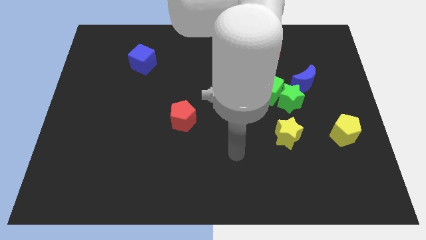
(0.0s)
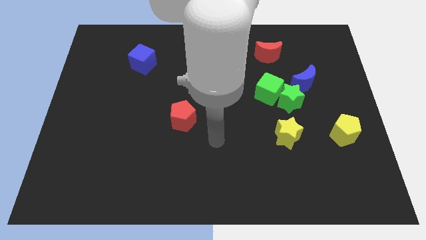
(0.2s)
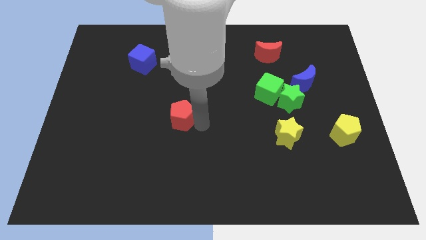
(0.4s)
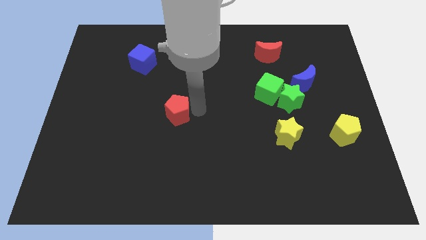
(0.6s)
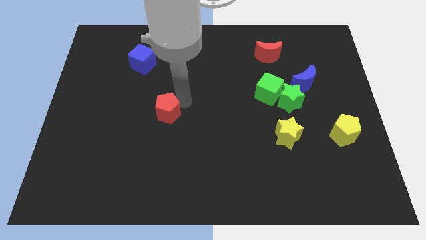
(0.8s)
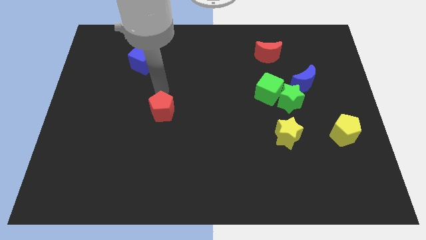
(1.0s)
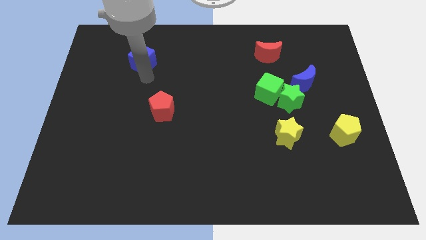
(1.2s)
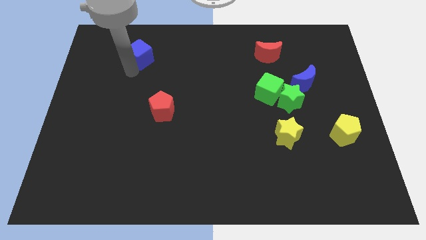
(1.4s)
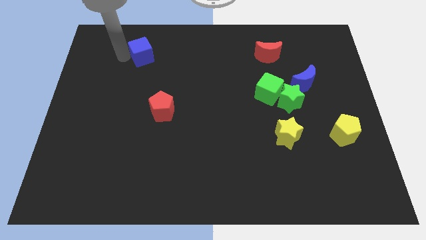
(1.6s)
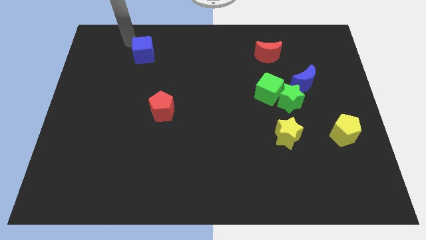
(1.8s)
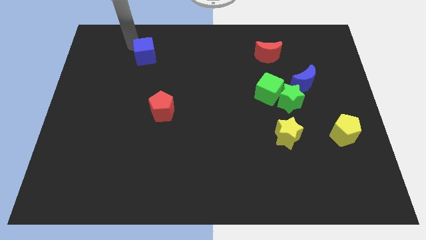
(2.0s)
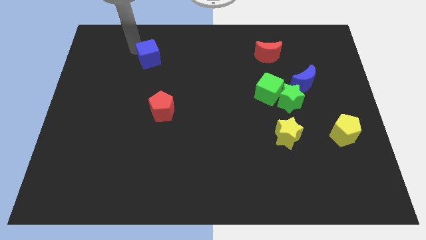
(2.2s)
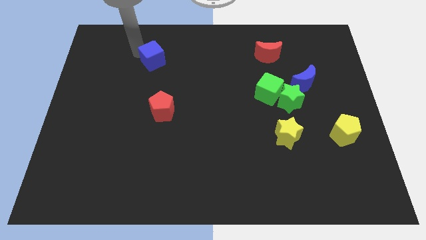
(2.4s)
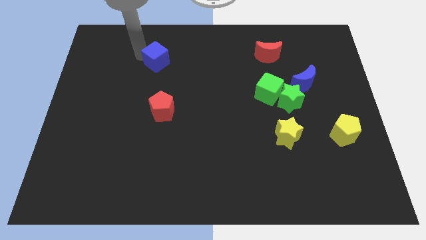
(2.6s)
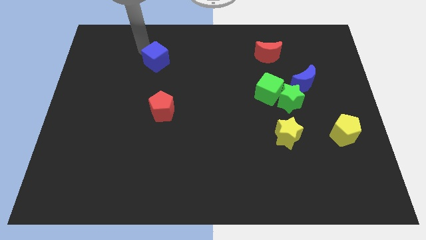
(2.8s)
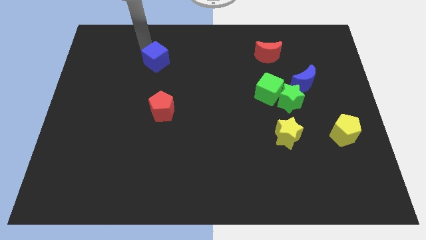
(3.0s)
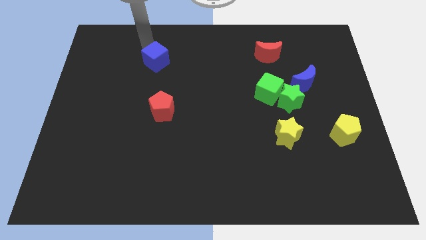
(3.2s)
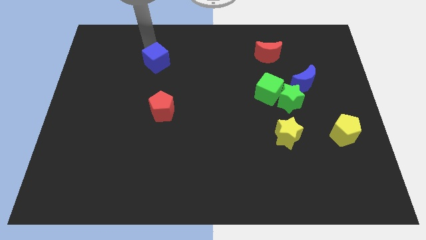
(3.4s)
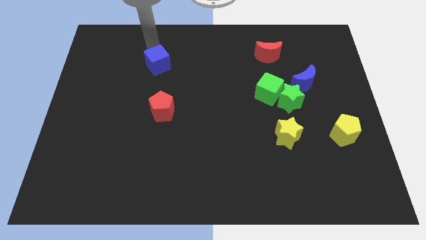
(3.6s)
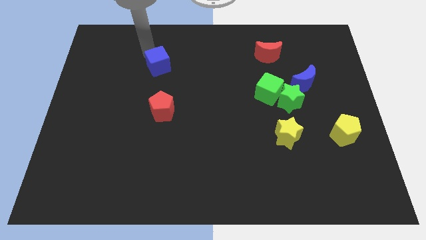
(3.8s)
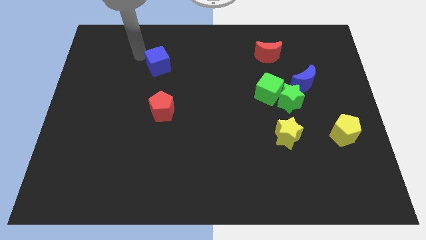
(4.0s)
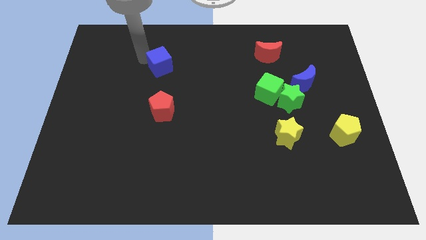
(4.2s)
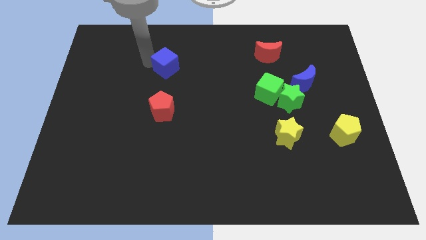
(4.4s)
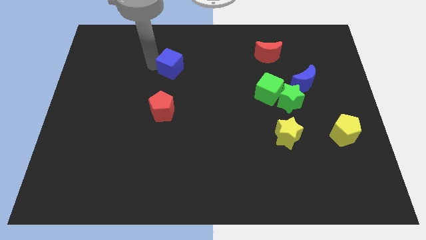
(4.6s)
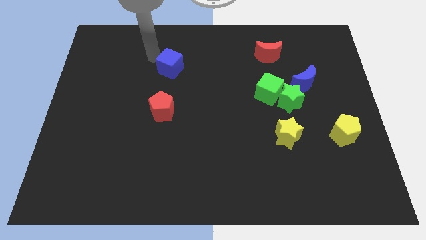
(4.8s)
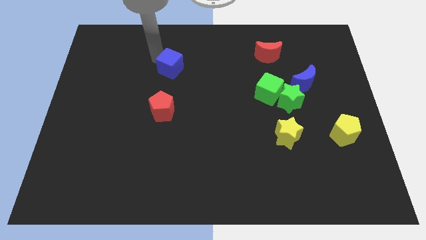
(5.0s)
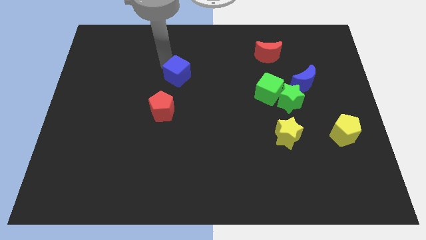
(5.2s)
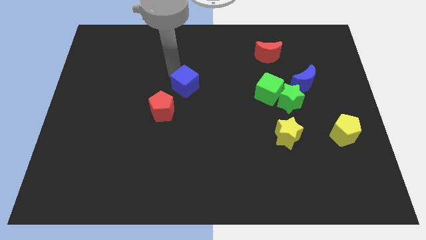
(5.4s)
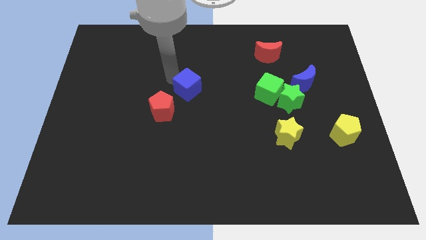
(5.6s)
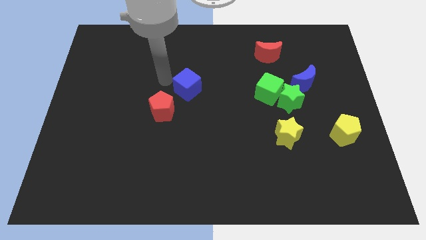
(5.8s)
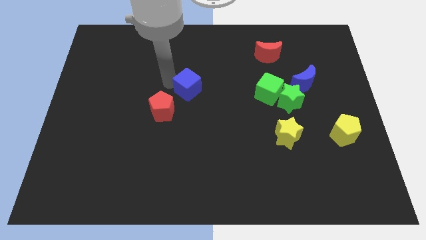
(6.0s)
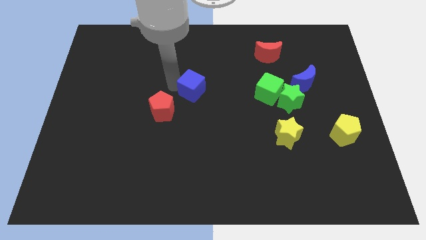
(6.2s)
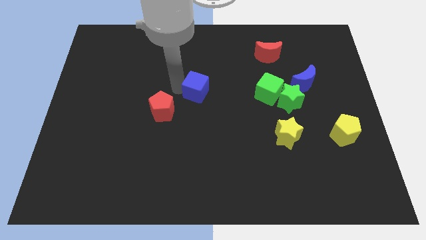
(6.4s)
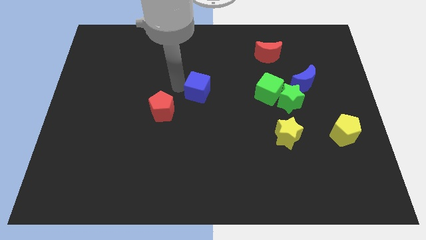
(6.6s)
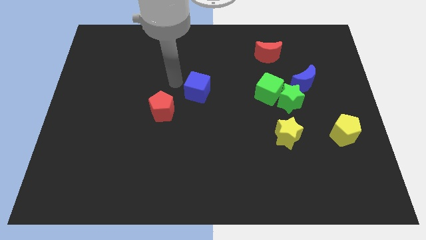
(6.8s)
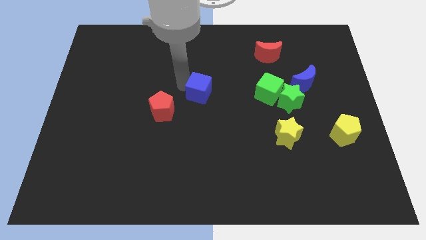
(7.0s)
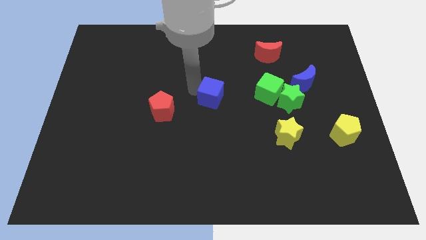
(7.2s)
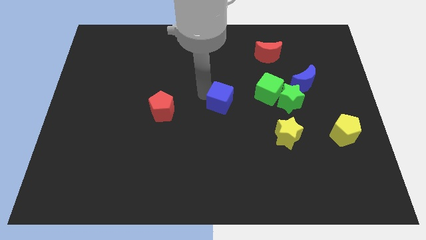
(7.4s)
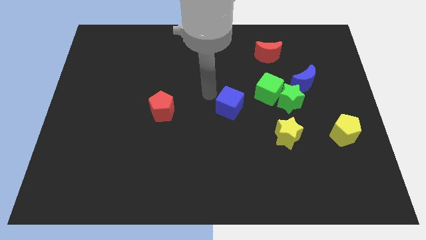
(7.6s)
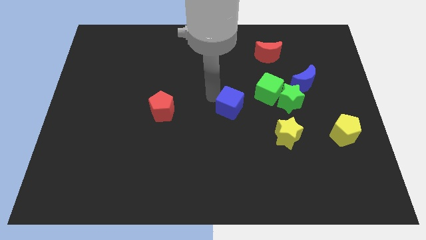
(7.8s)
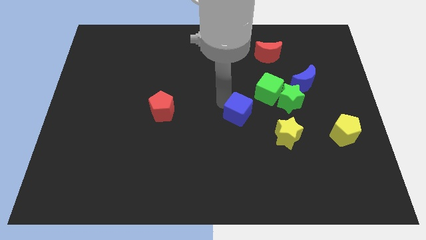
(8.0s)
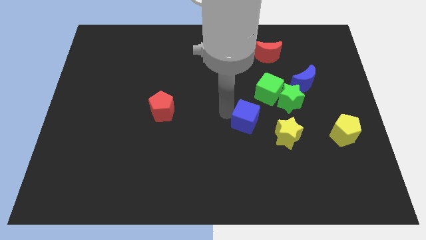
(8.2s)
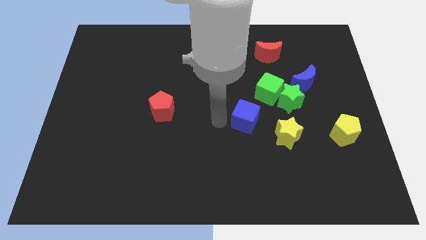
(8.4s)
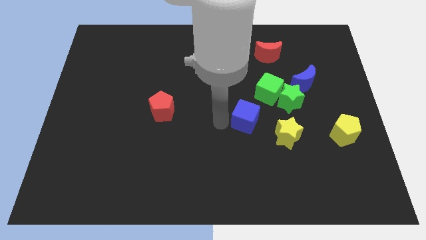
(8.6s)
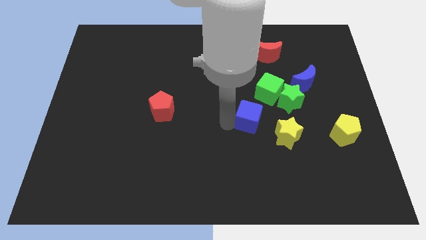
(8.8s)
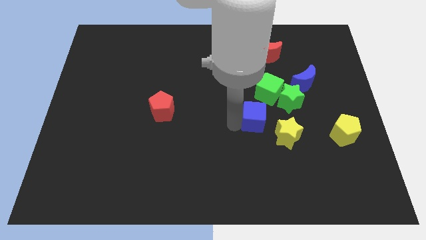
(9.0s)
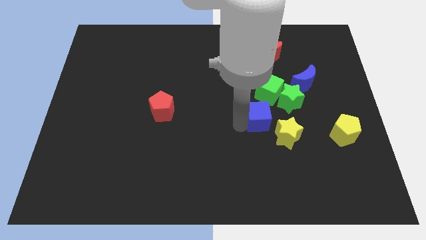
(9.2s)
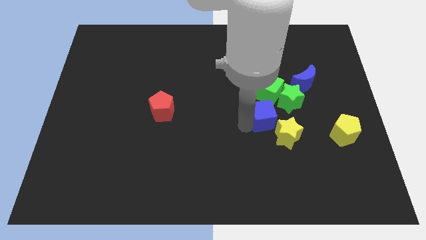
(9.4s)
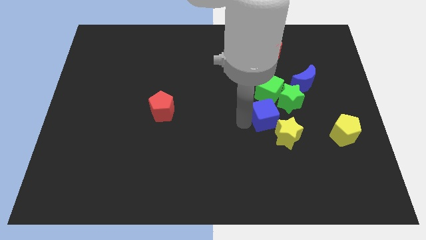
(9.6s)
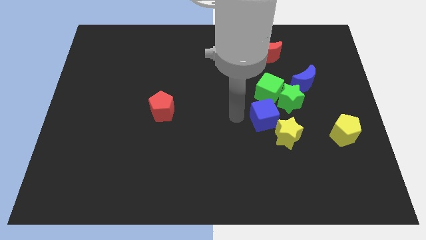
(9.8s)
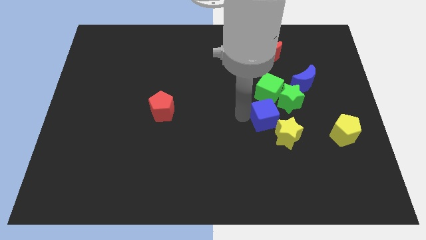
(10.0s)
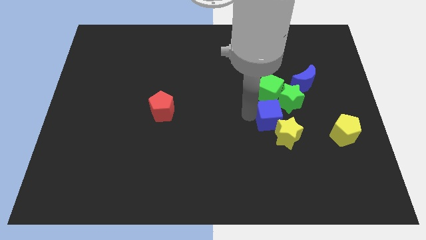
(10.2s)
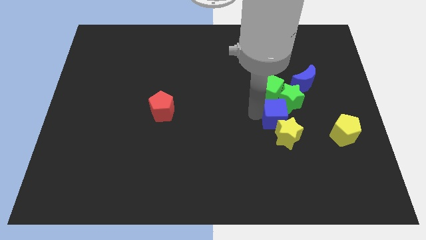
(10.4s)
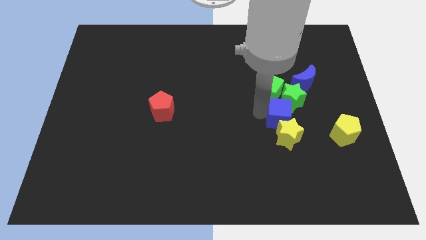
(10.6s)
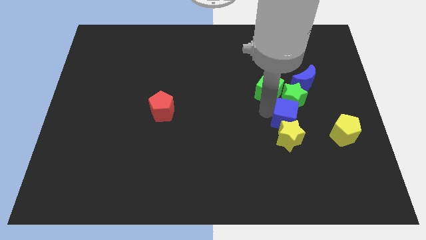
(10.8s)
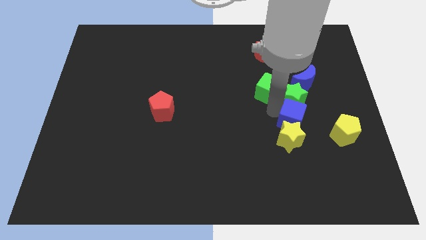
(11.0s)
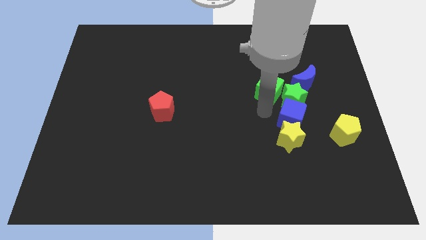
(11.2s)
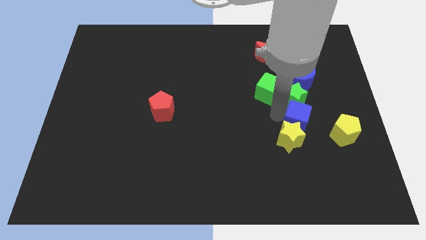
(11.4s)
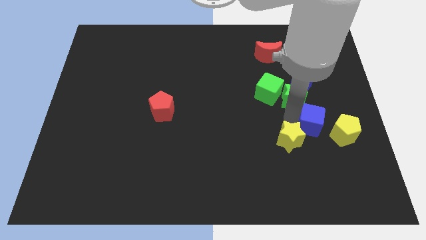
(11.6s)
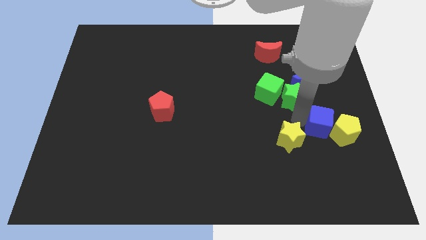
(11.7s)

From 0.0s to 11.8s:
push the blue cube to the yellow pentagon
